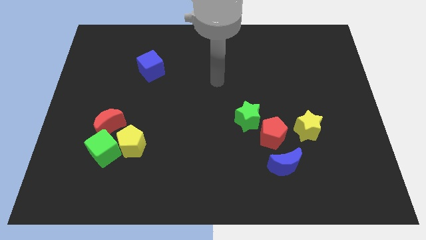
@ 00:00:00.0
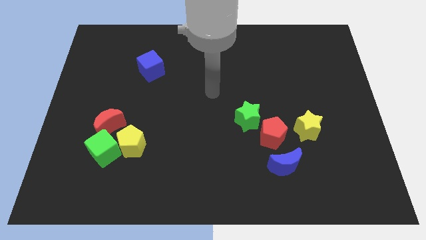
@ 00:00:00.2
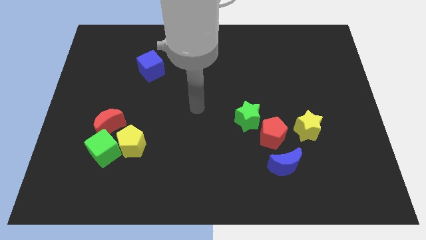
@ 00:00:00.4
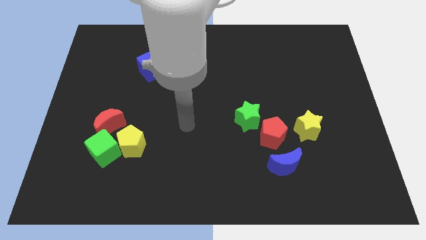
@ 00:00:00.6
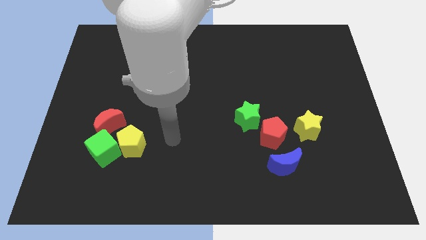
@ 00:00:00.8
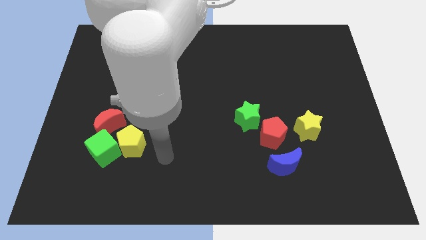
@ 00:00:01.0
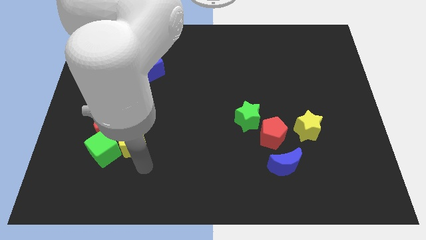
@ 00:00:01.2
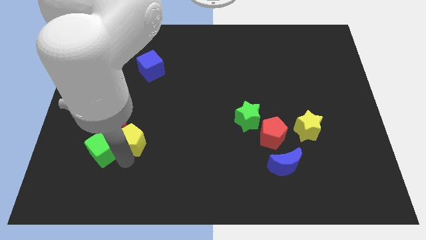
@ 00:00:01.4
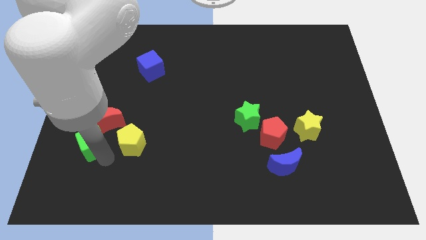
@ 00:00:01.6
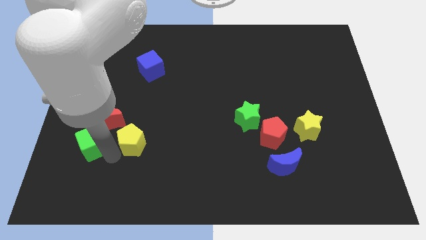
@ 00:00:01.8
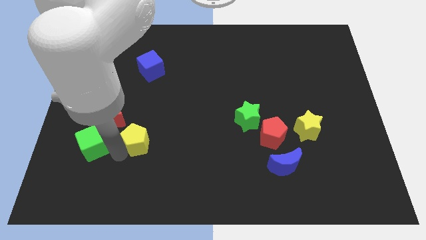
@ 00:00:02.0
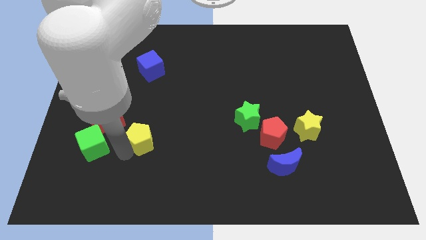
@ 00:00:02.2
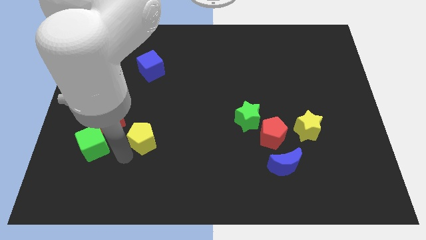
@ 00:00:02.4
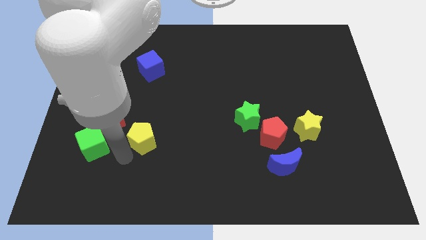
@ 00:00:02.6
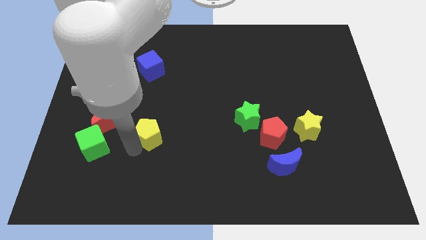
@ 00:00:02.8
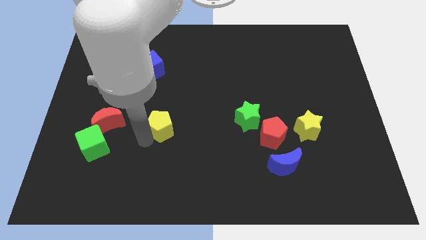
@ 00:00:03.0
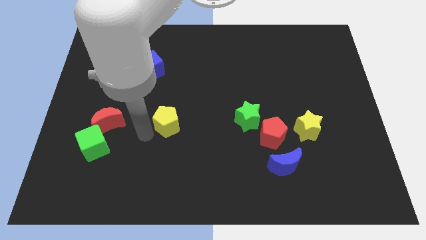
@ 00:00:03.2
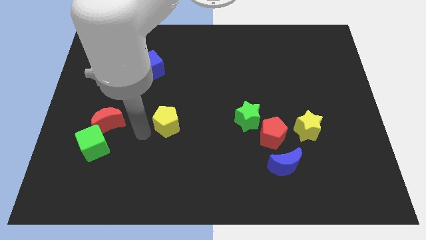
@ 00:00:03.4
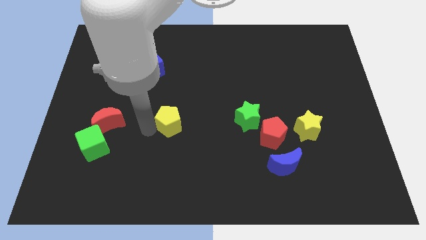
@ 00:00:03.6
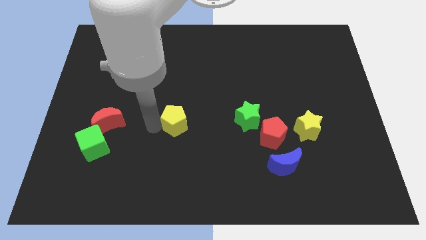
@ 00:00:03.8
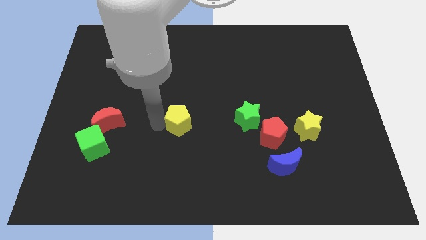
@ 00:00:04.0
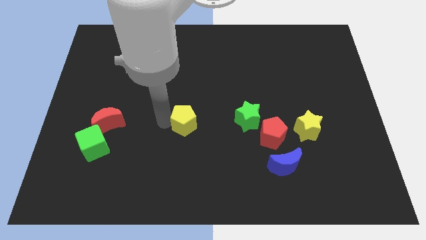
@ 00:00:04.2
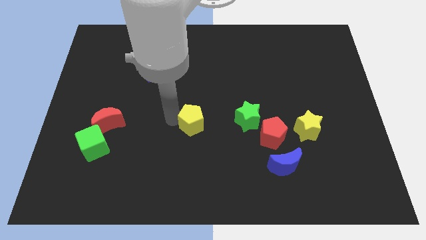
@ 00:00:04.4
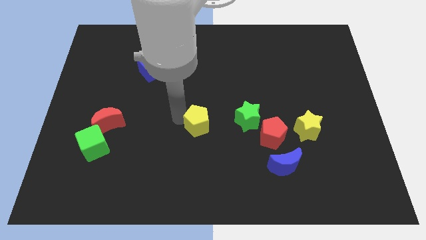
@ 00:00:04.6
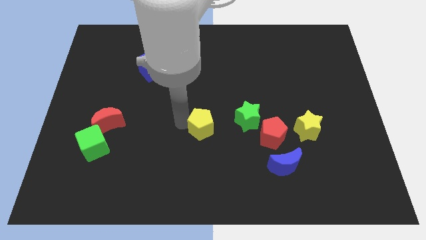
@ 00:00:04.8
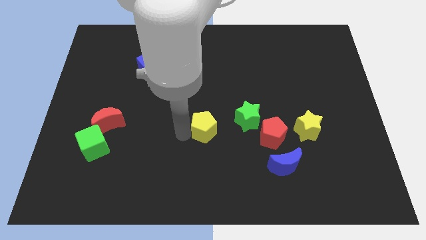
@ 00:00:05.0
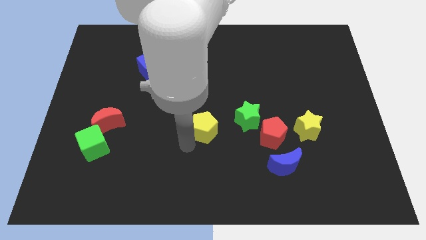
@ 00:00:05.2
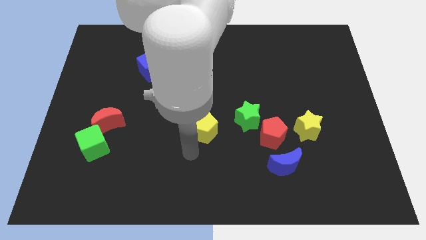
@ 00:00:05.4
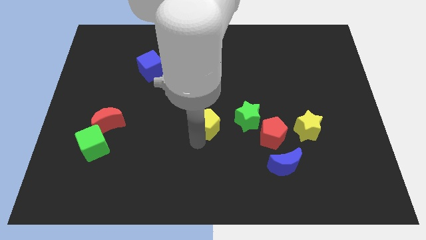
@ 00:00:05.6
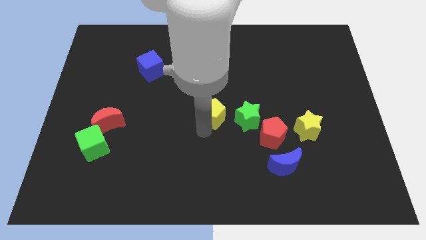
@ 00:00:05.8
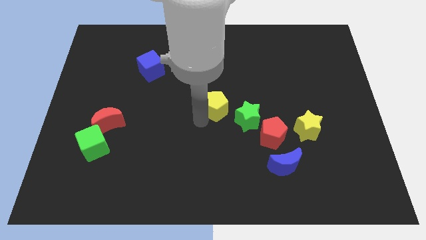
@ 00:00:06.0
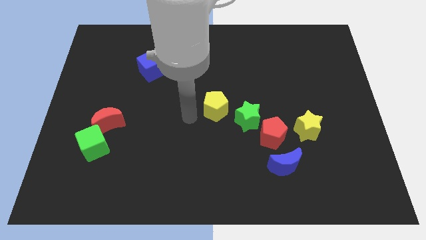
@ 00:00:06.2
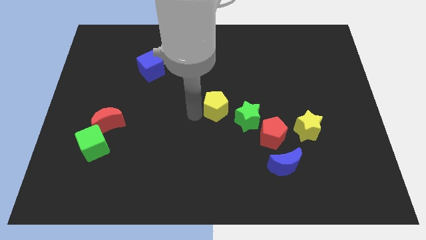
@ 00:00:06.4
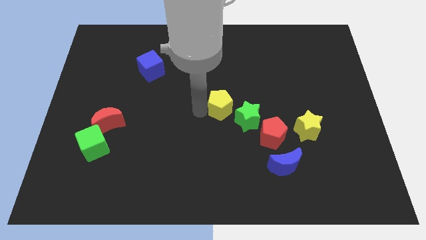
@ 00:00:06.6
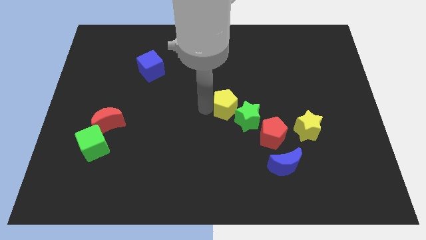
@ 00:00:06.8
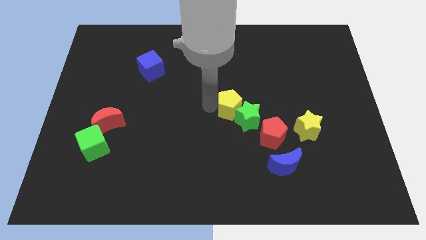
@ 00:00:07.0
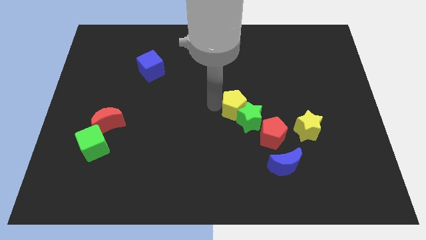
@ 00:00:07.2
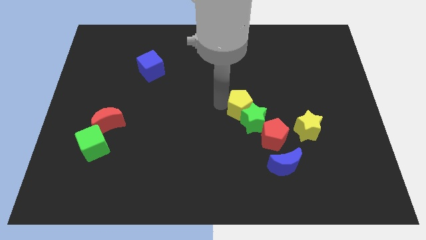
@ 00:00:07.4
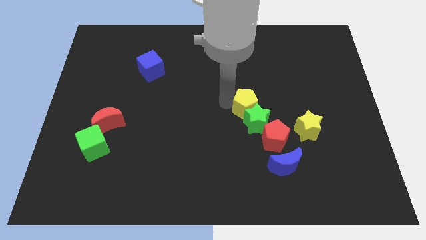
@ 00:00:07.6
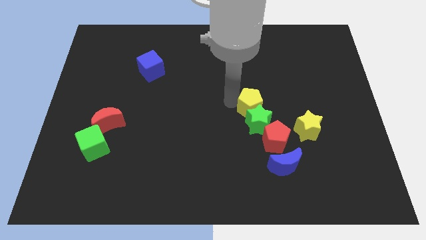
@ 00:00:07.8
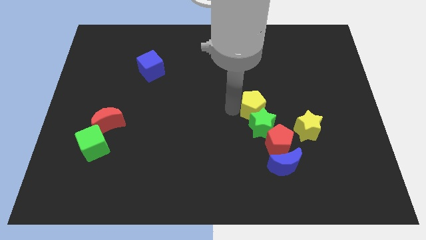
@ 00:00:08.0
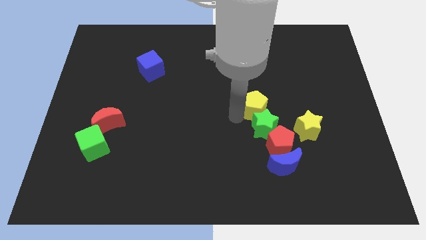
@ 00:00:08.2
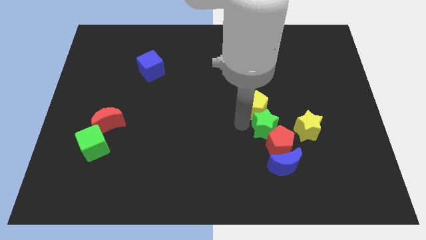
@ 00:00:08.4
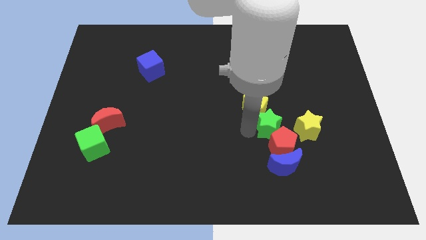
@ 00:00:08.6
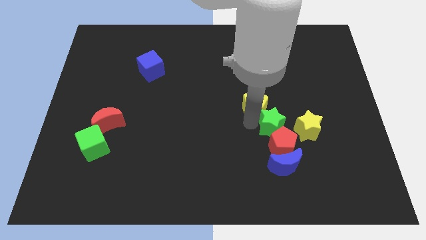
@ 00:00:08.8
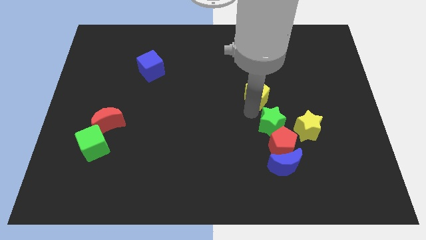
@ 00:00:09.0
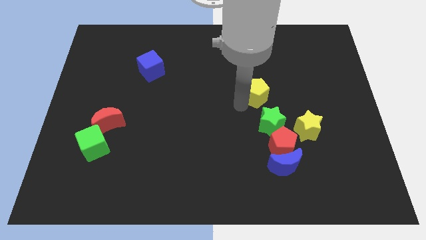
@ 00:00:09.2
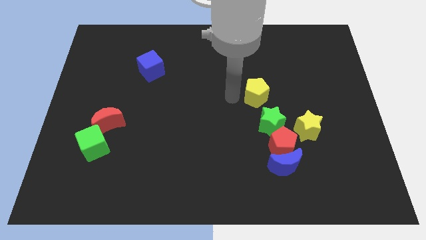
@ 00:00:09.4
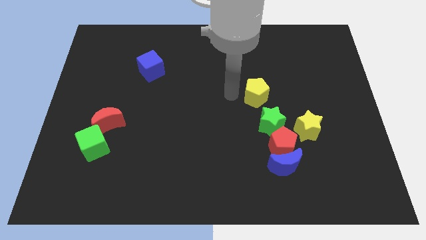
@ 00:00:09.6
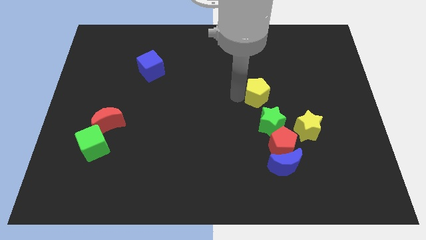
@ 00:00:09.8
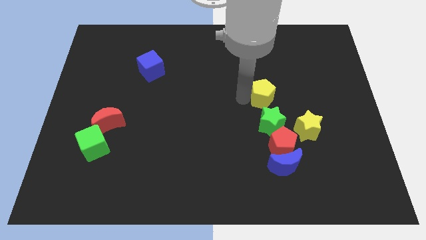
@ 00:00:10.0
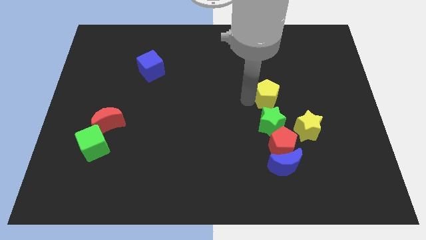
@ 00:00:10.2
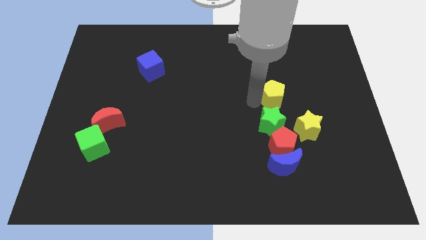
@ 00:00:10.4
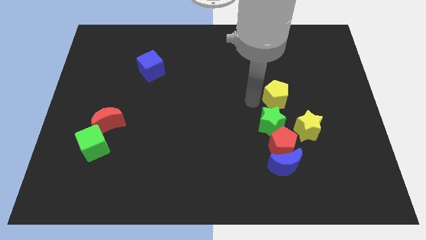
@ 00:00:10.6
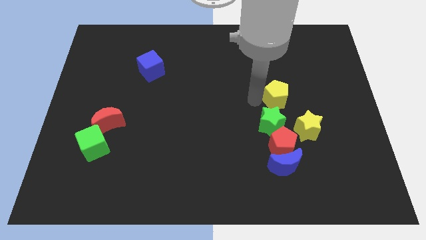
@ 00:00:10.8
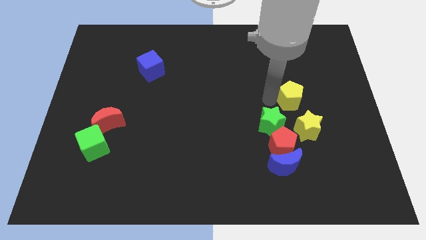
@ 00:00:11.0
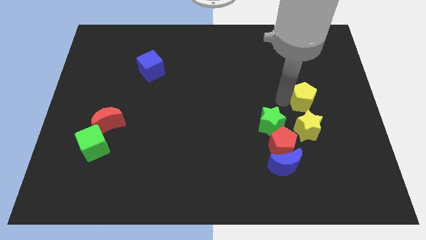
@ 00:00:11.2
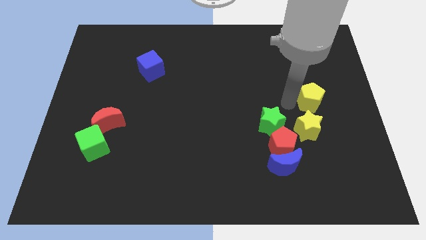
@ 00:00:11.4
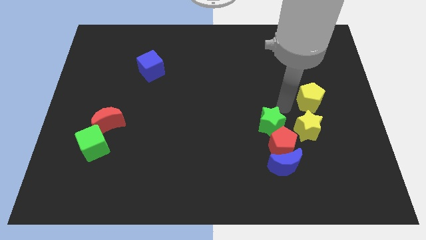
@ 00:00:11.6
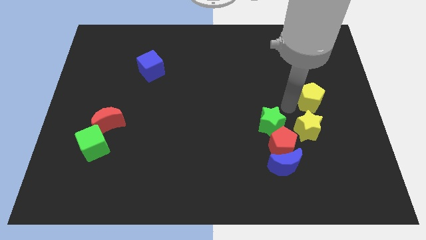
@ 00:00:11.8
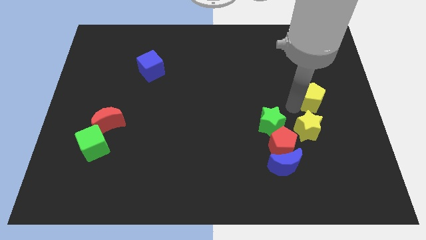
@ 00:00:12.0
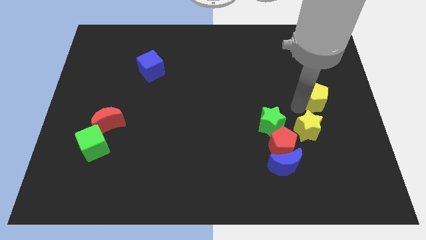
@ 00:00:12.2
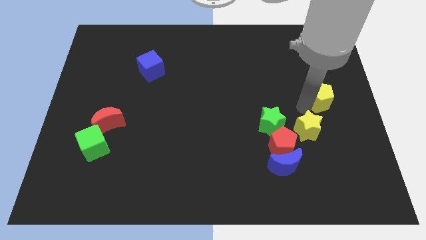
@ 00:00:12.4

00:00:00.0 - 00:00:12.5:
move the yellow pentagon to the right side of the board
